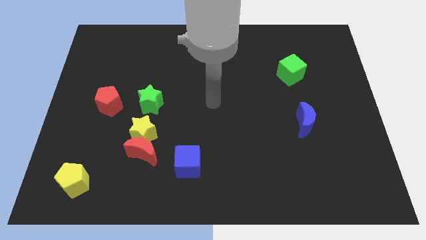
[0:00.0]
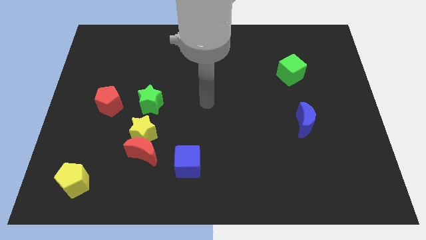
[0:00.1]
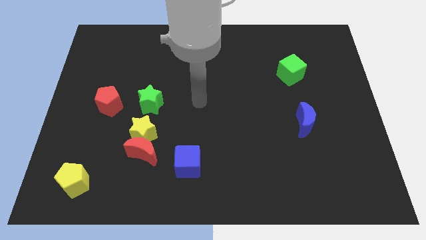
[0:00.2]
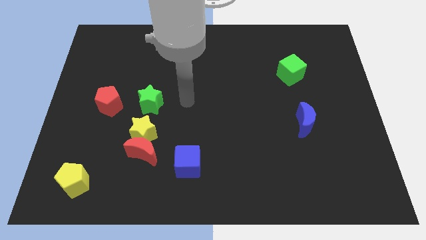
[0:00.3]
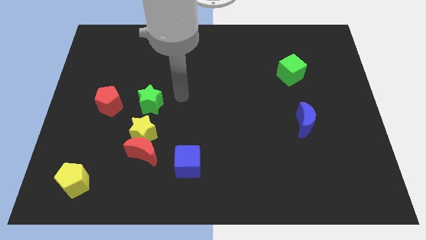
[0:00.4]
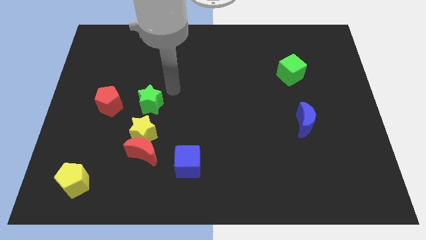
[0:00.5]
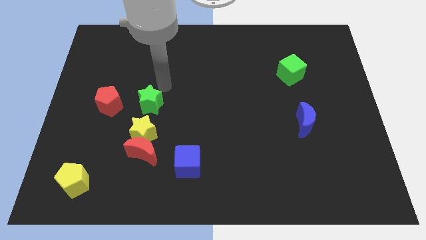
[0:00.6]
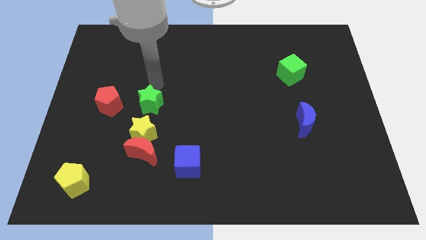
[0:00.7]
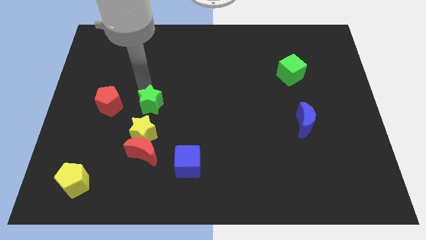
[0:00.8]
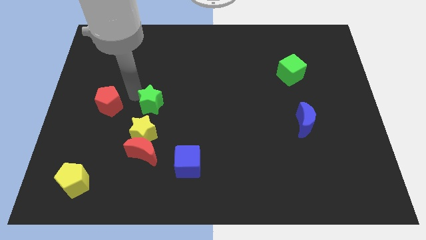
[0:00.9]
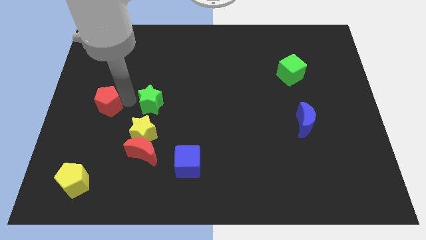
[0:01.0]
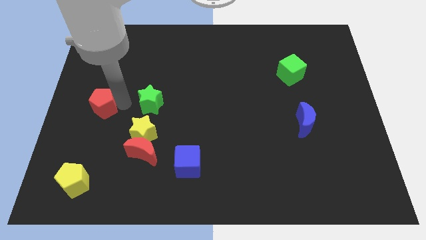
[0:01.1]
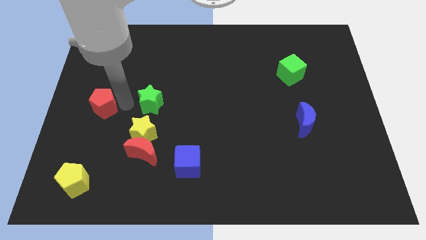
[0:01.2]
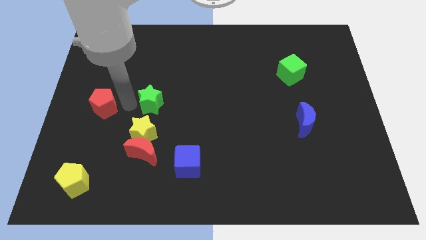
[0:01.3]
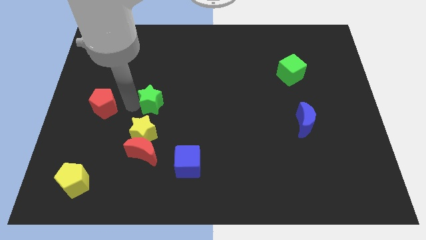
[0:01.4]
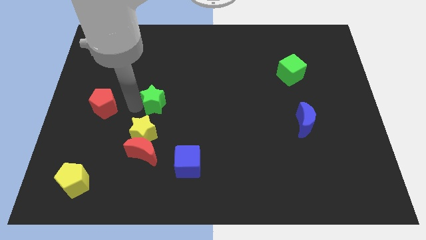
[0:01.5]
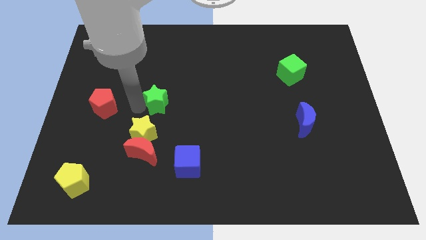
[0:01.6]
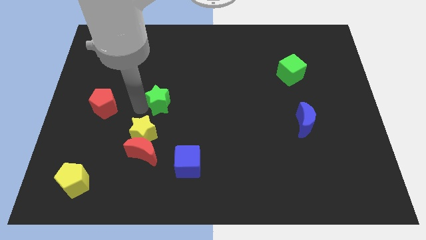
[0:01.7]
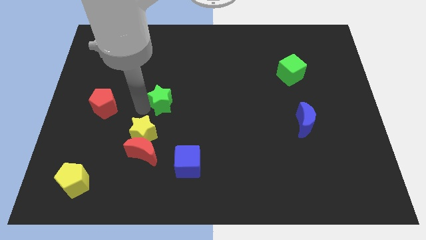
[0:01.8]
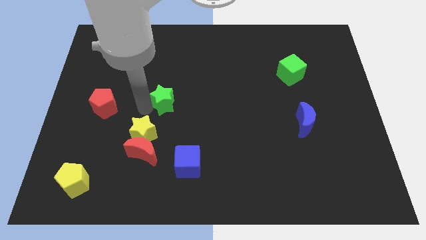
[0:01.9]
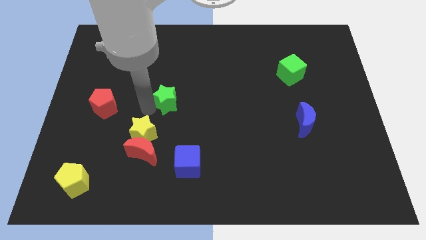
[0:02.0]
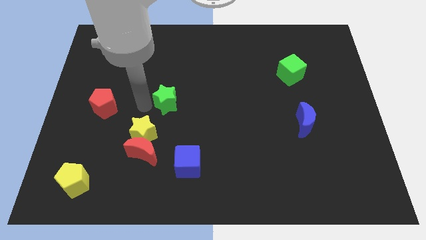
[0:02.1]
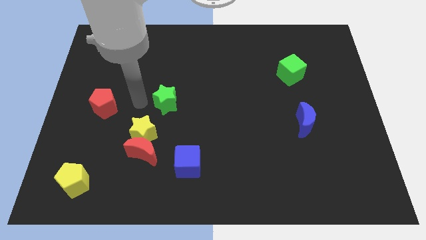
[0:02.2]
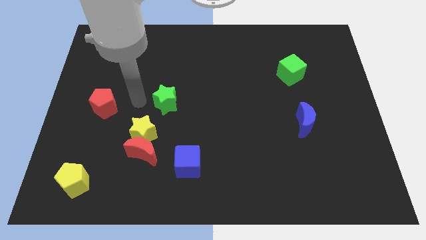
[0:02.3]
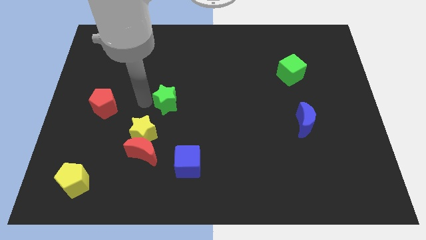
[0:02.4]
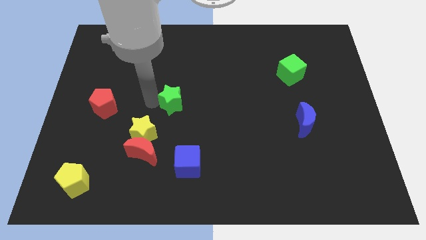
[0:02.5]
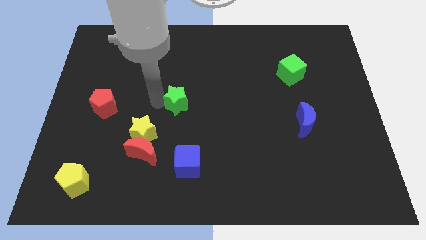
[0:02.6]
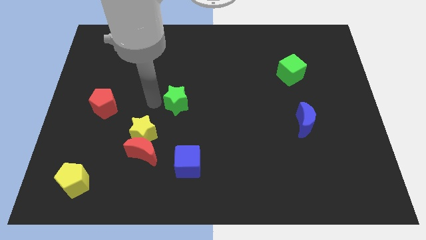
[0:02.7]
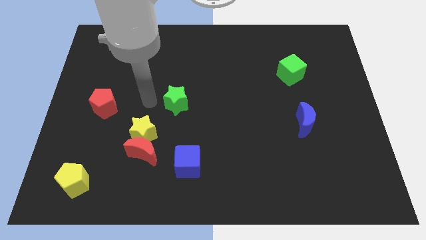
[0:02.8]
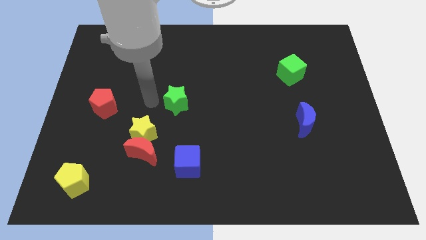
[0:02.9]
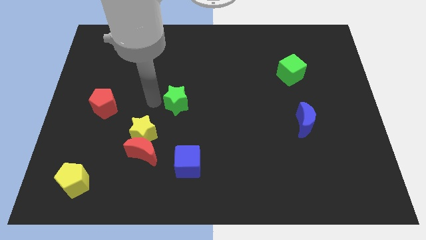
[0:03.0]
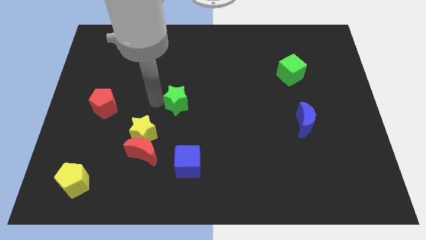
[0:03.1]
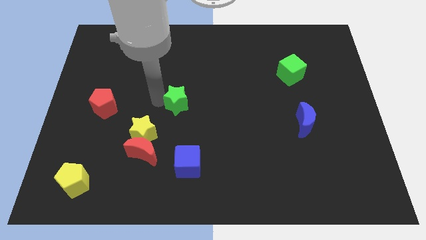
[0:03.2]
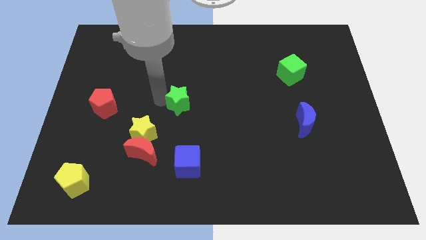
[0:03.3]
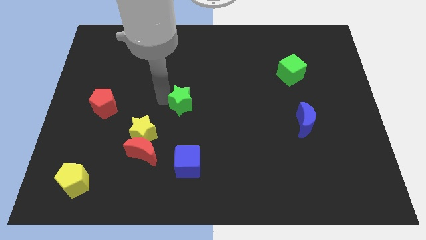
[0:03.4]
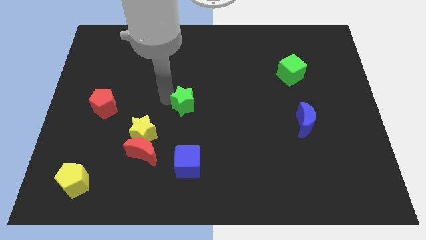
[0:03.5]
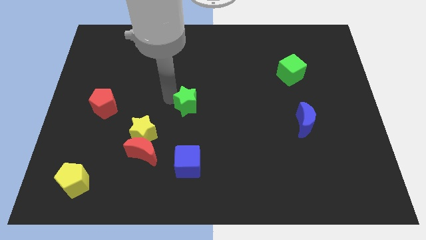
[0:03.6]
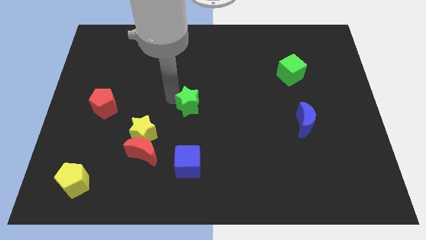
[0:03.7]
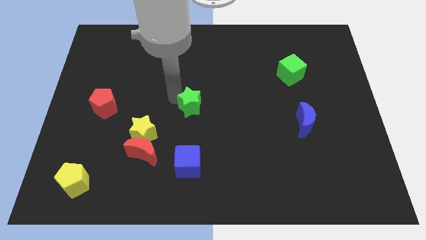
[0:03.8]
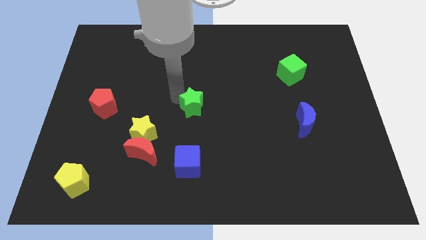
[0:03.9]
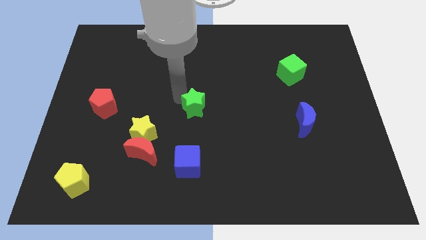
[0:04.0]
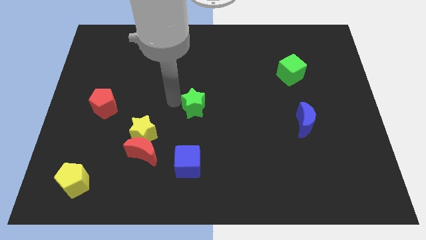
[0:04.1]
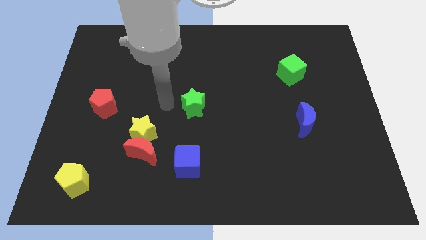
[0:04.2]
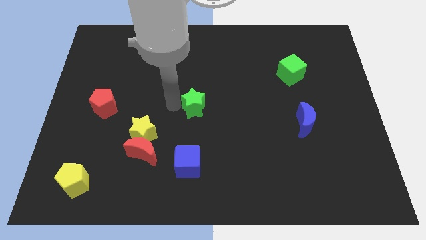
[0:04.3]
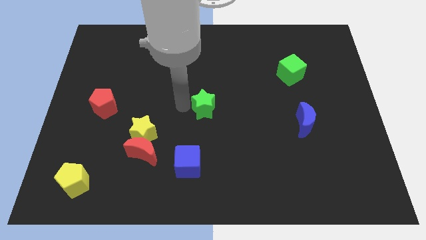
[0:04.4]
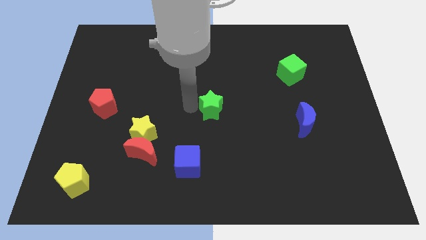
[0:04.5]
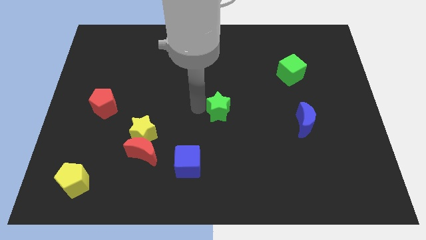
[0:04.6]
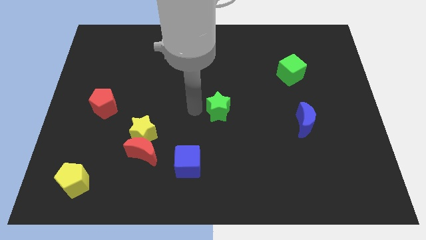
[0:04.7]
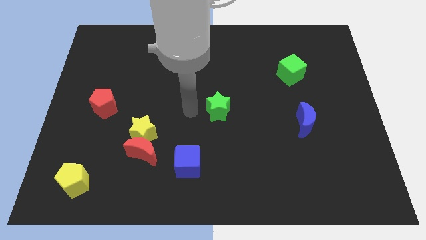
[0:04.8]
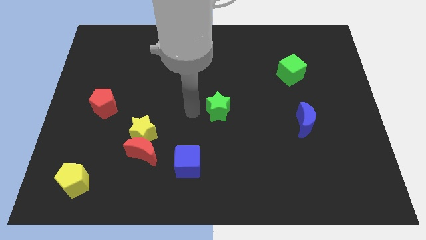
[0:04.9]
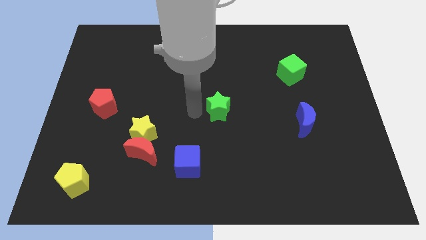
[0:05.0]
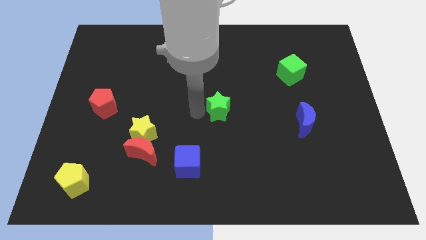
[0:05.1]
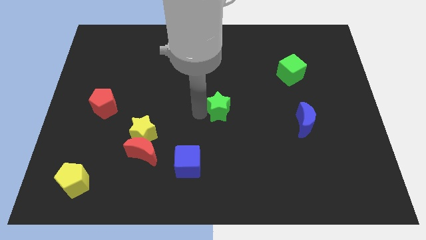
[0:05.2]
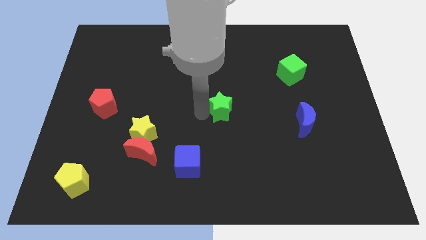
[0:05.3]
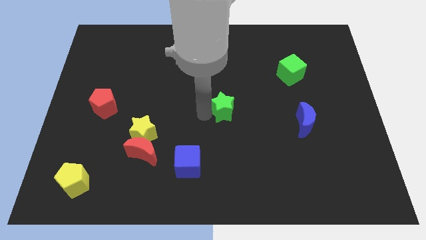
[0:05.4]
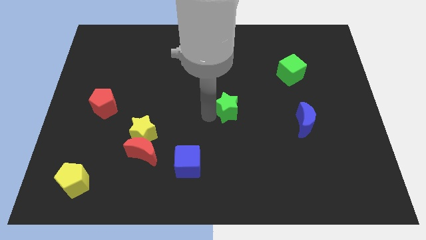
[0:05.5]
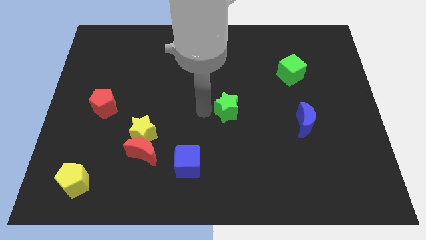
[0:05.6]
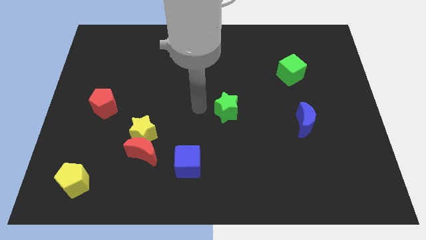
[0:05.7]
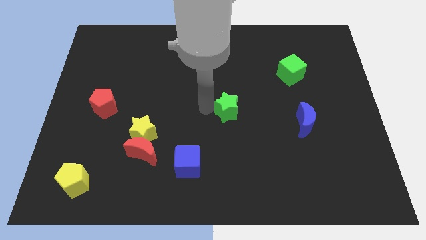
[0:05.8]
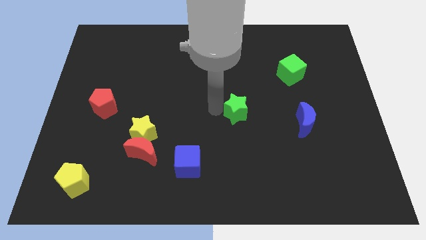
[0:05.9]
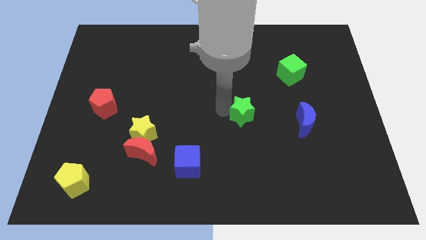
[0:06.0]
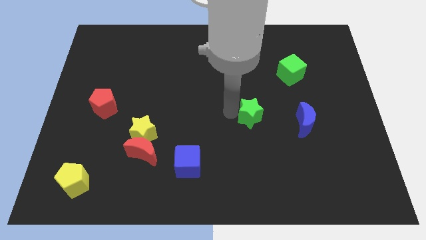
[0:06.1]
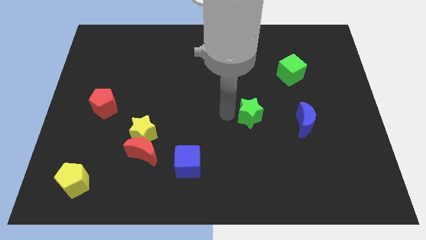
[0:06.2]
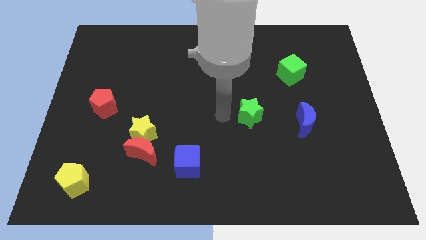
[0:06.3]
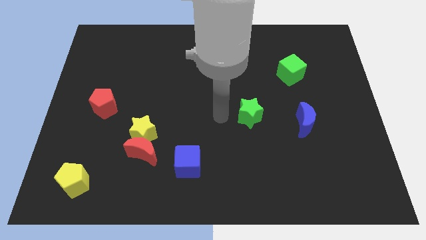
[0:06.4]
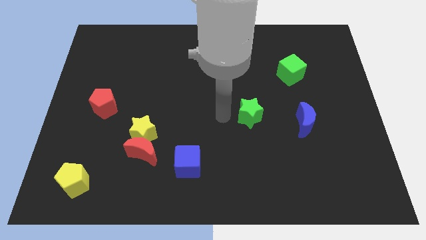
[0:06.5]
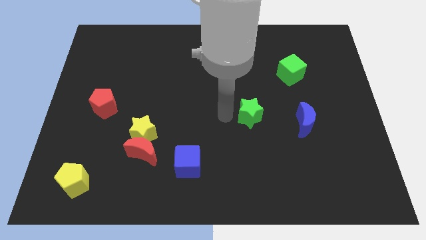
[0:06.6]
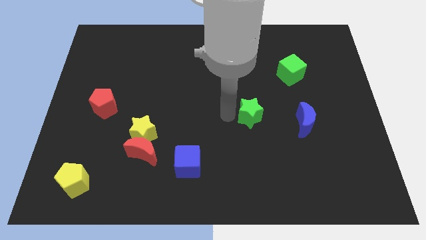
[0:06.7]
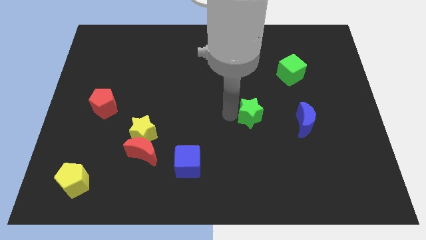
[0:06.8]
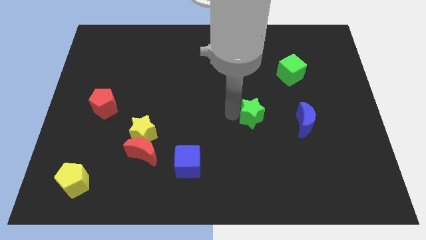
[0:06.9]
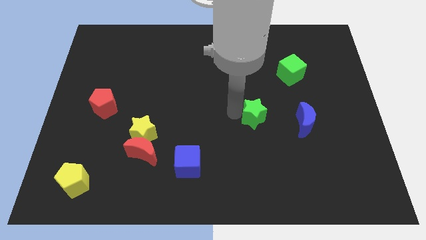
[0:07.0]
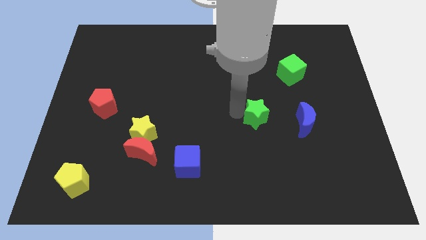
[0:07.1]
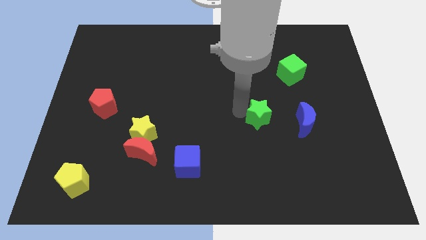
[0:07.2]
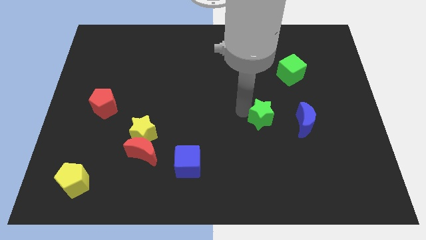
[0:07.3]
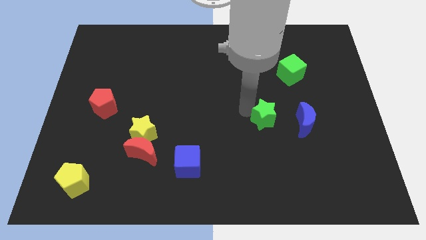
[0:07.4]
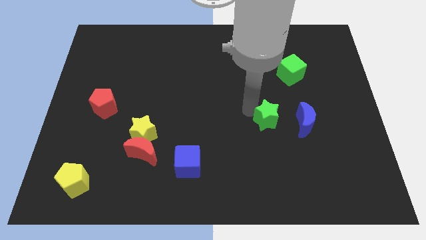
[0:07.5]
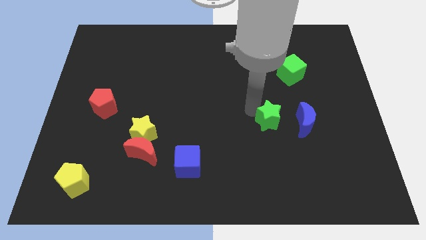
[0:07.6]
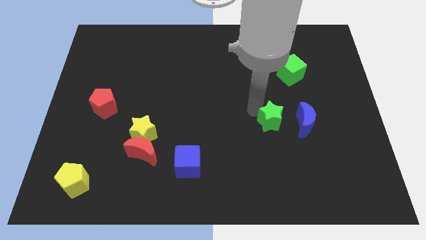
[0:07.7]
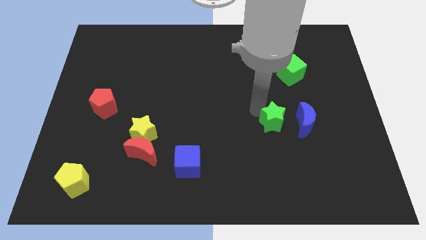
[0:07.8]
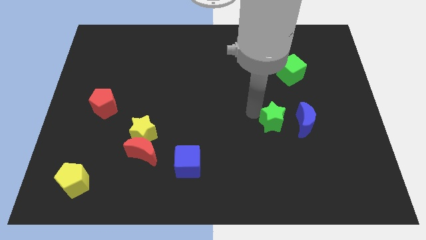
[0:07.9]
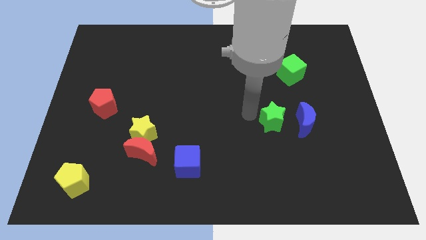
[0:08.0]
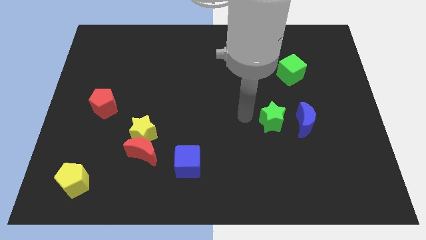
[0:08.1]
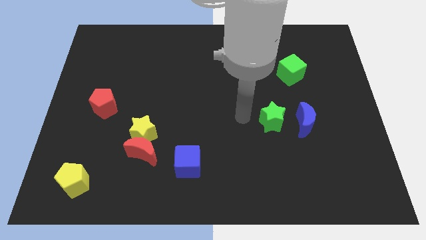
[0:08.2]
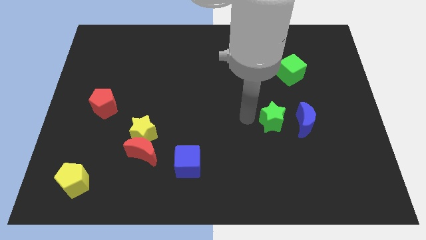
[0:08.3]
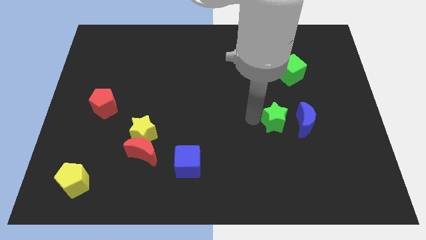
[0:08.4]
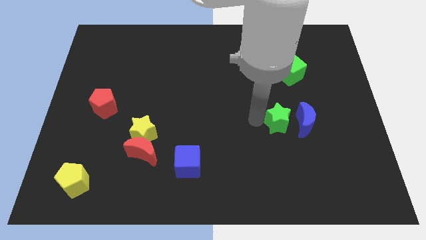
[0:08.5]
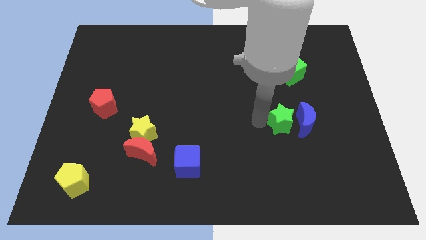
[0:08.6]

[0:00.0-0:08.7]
slide the green star to the blue moon
